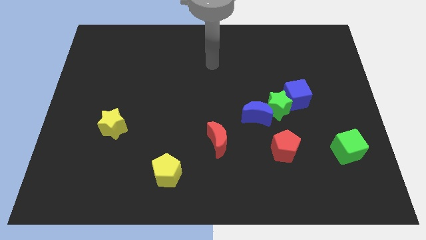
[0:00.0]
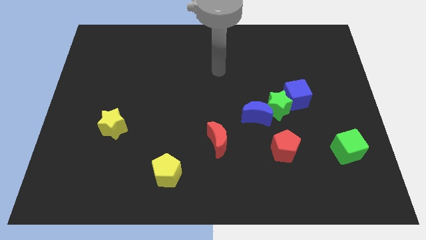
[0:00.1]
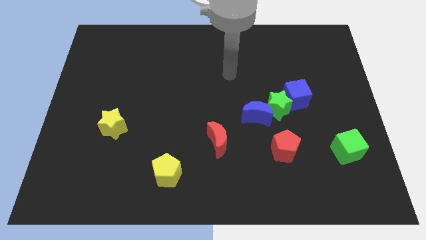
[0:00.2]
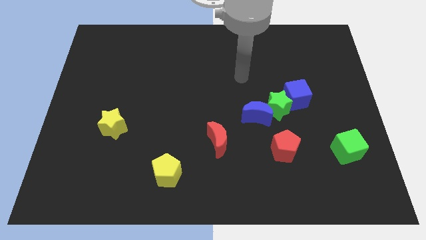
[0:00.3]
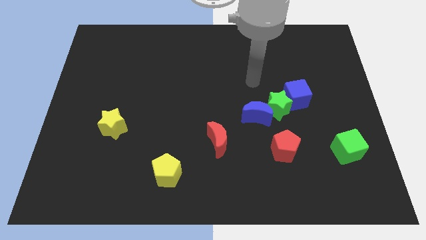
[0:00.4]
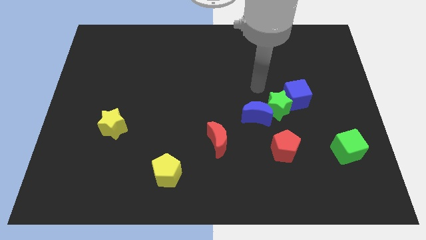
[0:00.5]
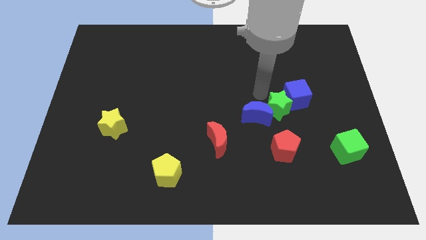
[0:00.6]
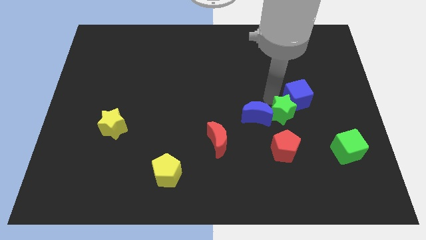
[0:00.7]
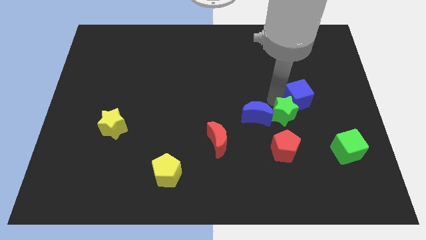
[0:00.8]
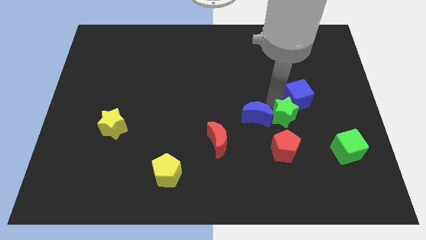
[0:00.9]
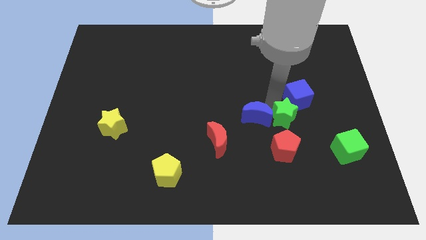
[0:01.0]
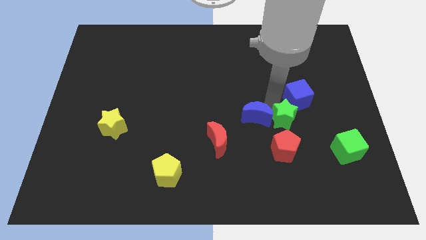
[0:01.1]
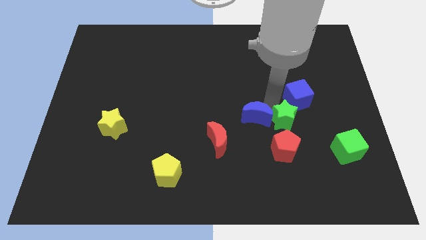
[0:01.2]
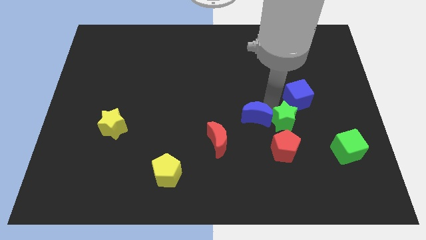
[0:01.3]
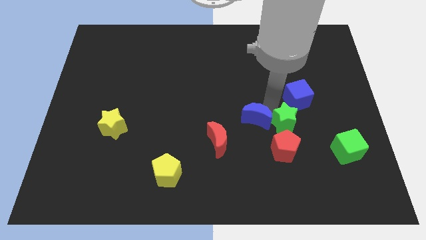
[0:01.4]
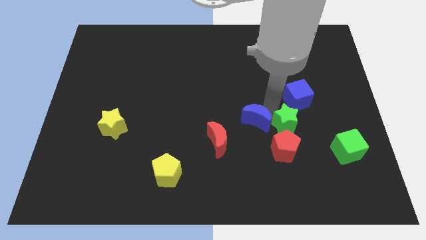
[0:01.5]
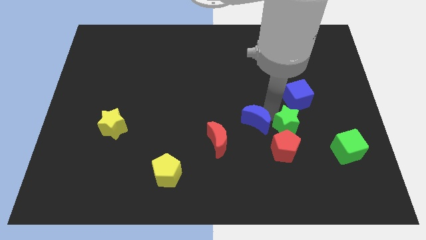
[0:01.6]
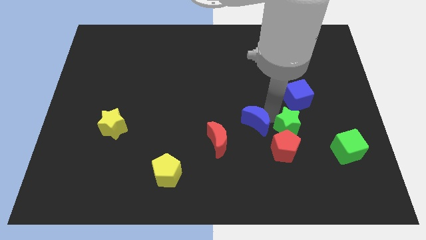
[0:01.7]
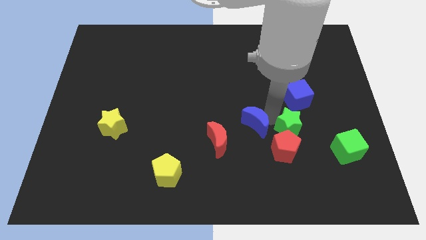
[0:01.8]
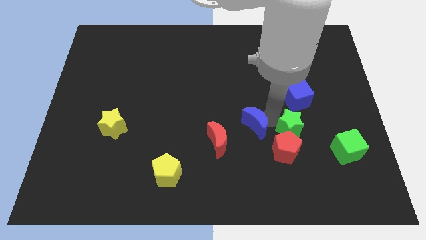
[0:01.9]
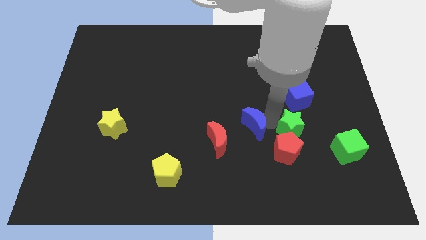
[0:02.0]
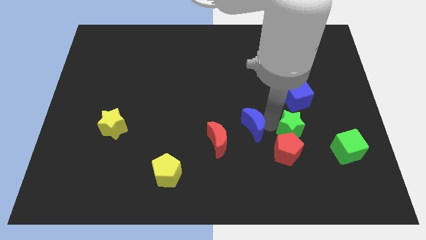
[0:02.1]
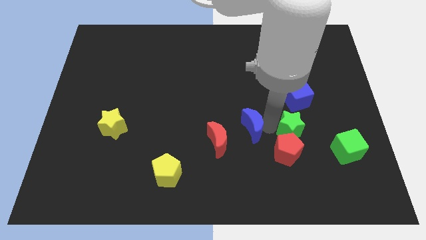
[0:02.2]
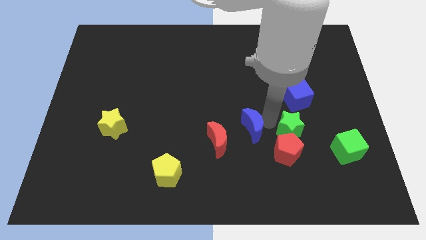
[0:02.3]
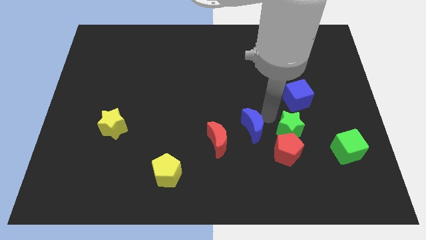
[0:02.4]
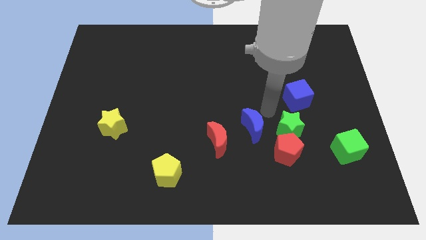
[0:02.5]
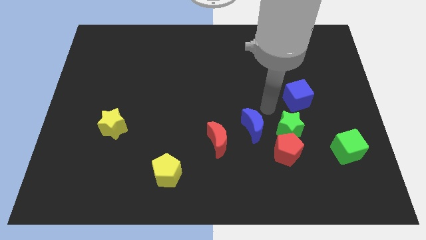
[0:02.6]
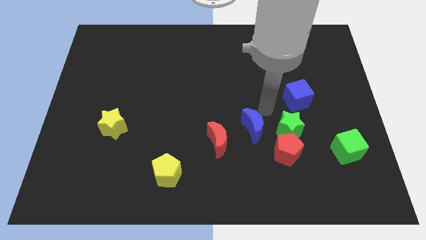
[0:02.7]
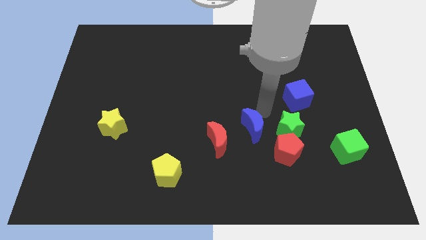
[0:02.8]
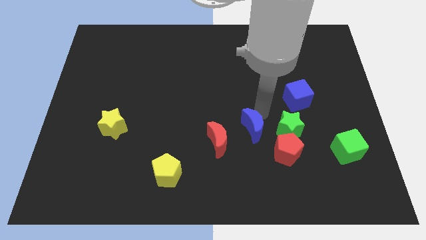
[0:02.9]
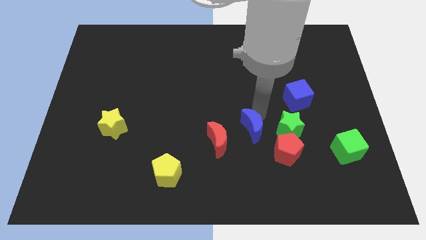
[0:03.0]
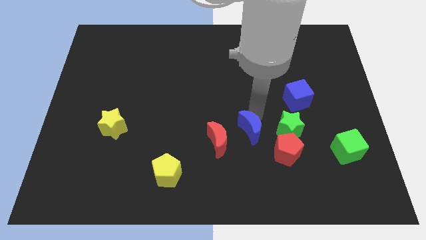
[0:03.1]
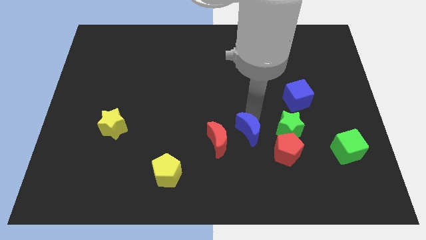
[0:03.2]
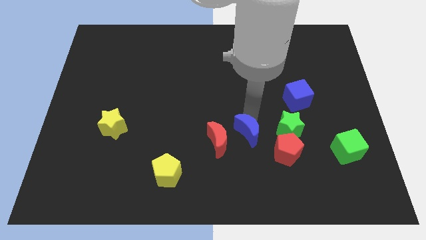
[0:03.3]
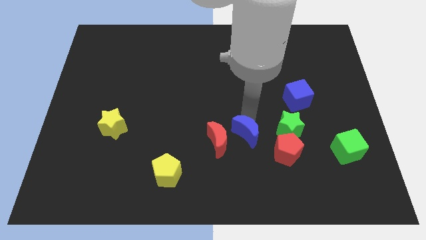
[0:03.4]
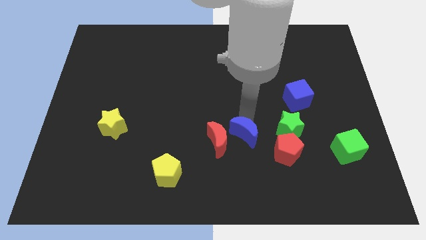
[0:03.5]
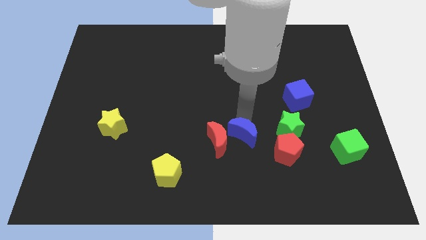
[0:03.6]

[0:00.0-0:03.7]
pull the blue moon apart from the green star

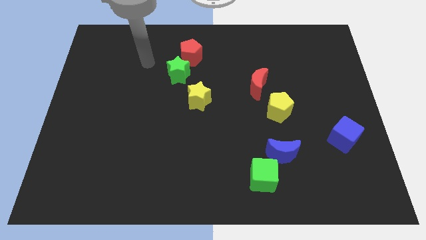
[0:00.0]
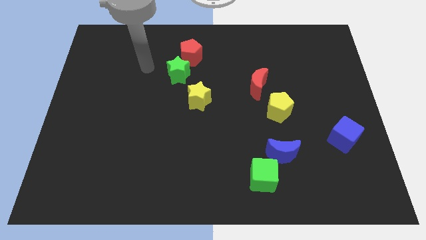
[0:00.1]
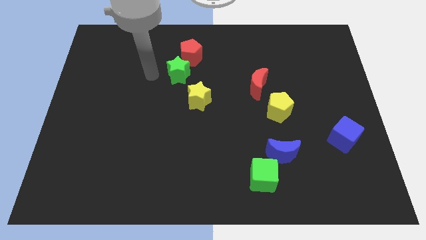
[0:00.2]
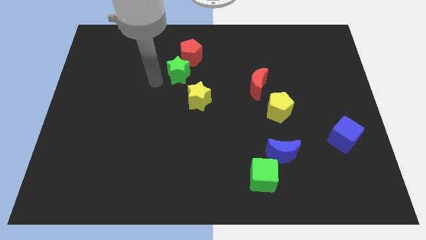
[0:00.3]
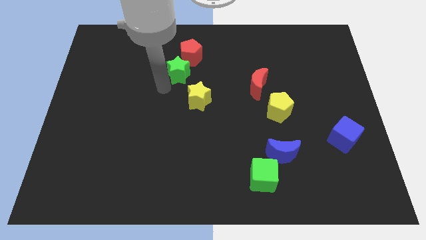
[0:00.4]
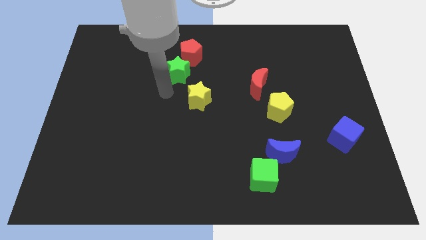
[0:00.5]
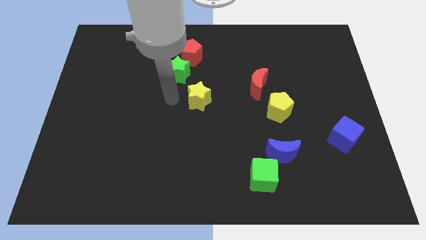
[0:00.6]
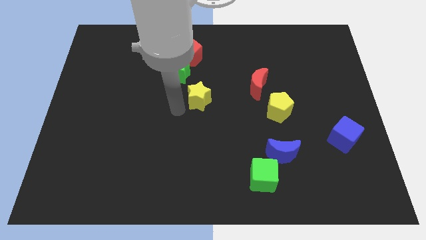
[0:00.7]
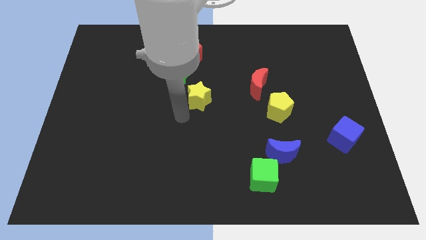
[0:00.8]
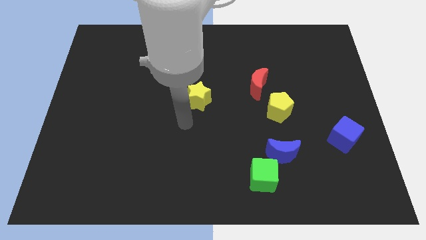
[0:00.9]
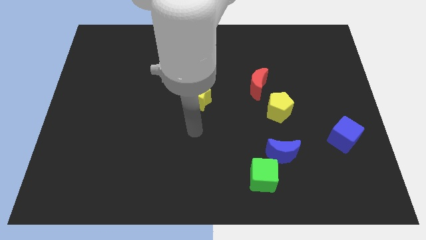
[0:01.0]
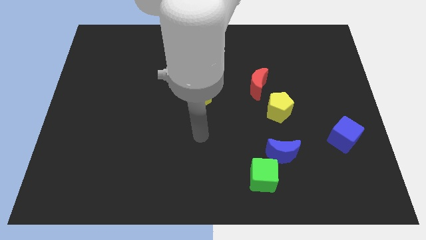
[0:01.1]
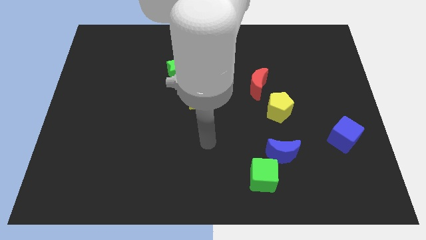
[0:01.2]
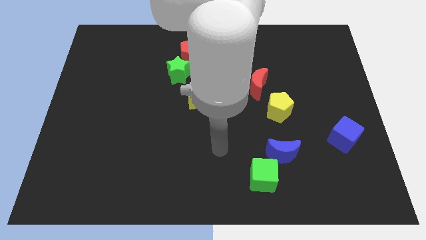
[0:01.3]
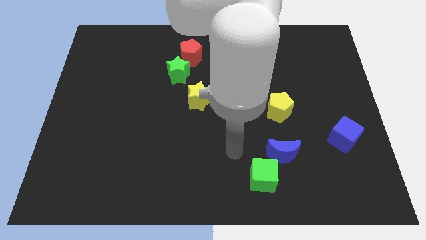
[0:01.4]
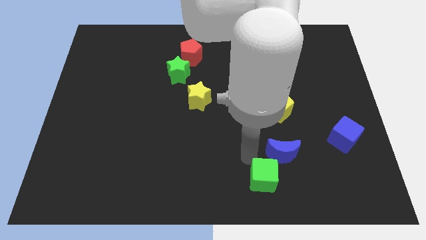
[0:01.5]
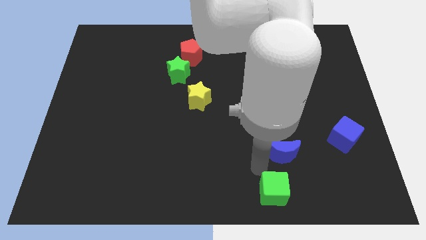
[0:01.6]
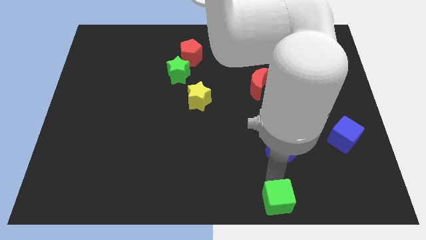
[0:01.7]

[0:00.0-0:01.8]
move the blue moon away from the green cube

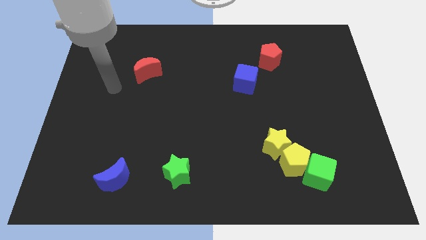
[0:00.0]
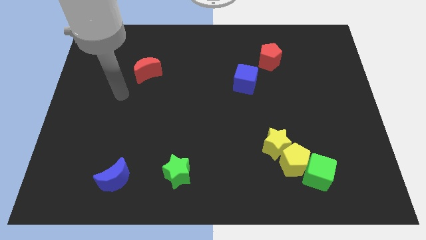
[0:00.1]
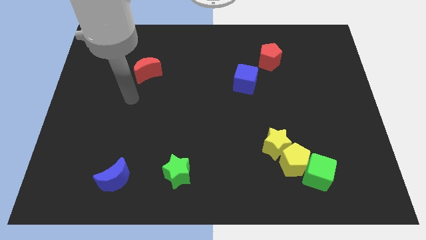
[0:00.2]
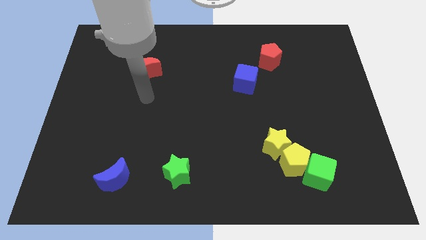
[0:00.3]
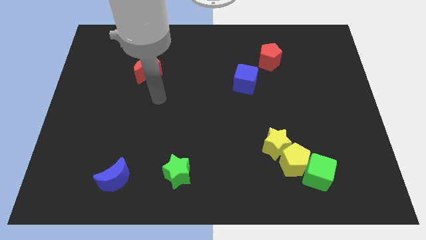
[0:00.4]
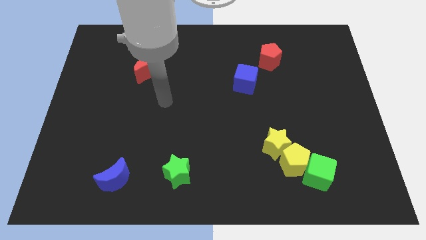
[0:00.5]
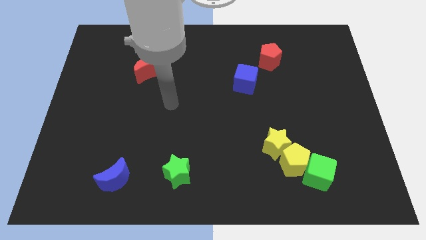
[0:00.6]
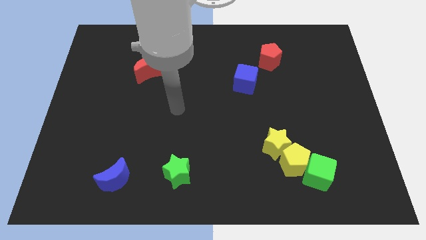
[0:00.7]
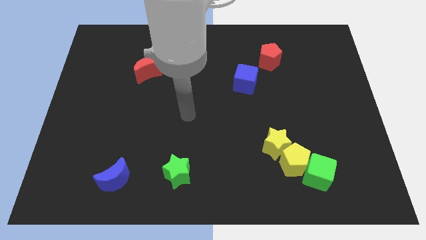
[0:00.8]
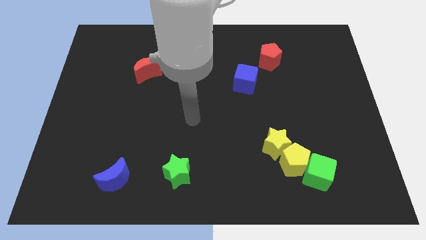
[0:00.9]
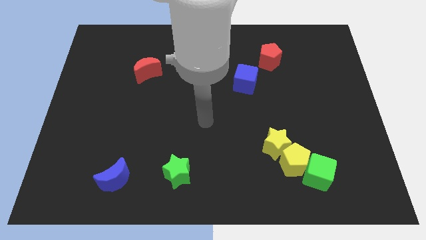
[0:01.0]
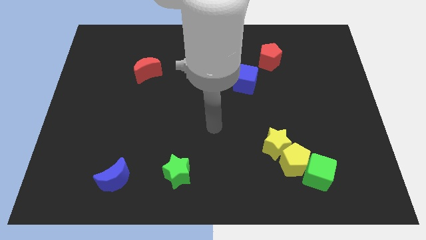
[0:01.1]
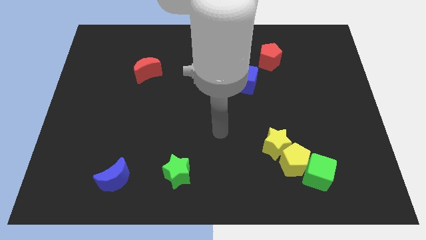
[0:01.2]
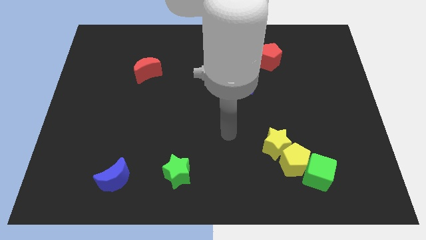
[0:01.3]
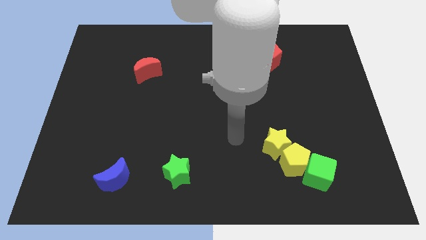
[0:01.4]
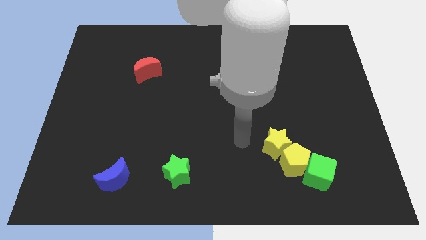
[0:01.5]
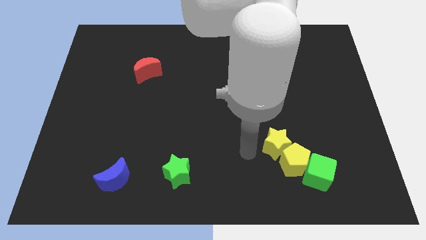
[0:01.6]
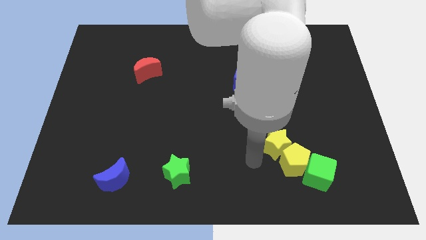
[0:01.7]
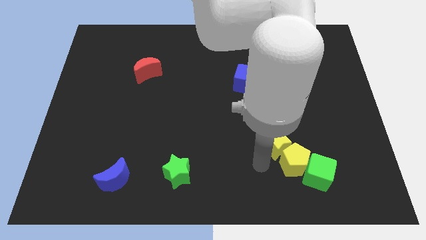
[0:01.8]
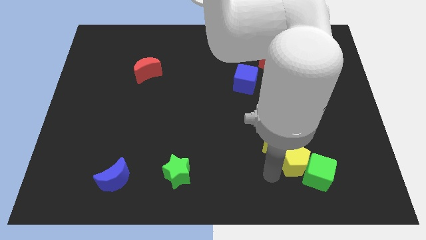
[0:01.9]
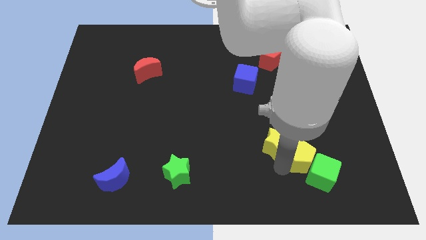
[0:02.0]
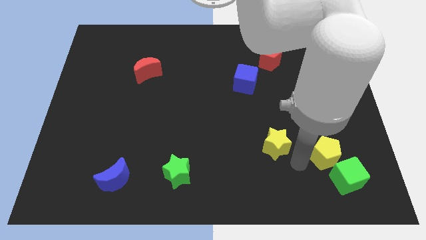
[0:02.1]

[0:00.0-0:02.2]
separate the yellow star from the yellow pentagon

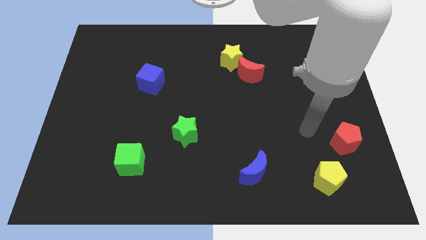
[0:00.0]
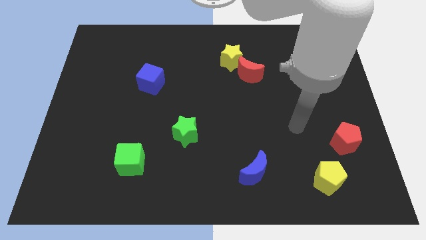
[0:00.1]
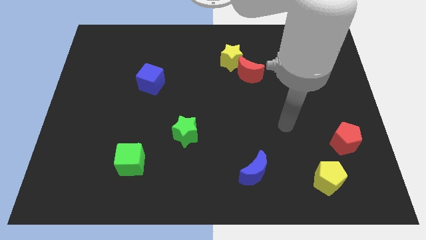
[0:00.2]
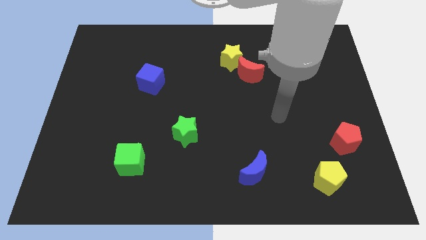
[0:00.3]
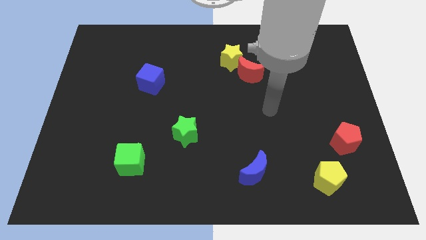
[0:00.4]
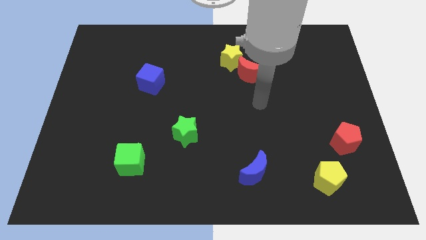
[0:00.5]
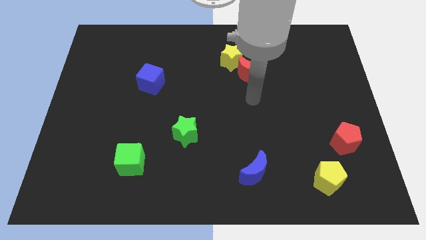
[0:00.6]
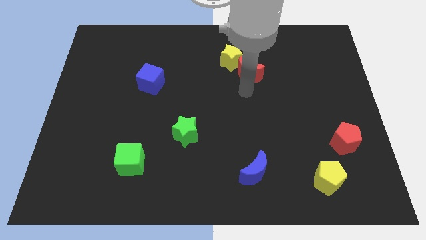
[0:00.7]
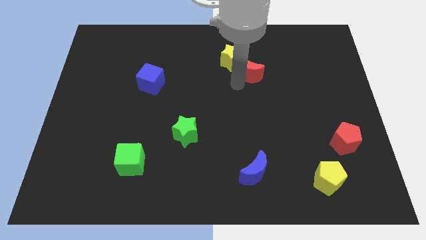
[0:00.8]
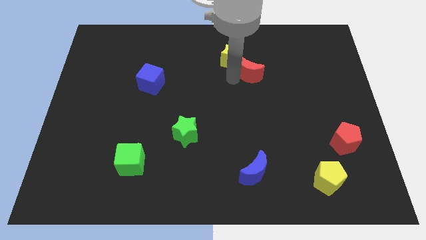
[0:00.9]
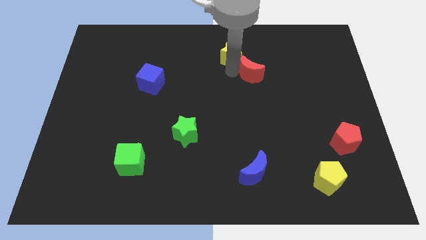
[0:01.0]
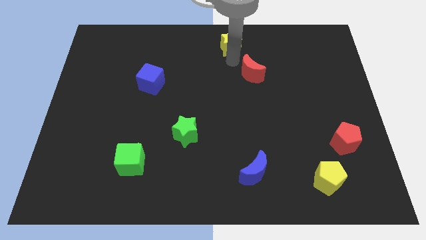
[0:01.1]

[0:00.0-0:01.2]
move the red moon away from the yellow star

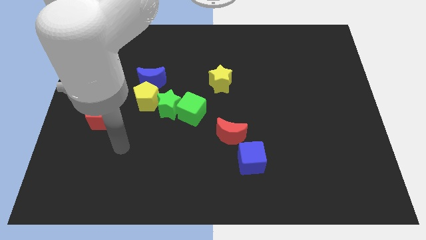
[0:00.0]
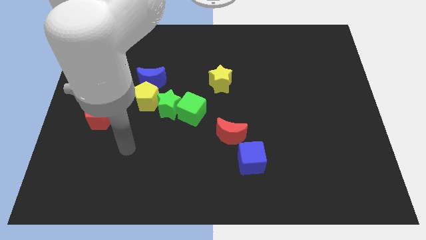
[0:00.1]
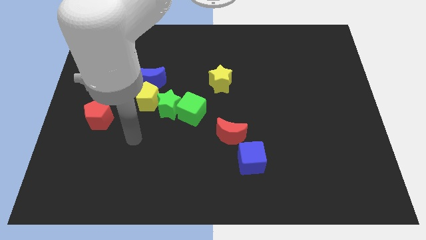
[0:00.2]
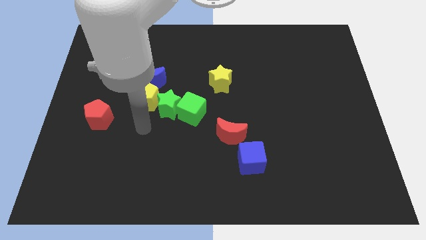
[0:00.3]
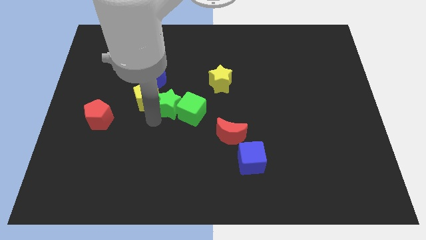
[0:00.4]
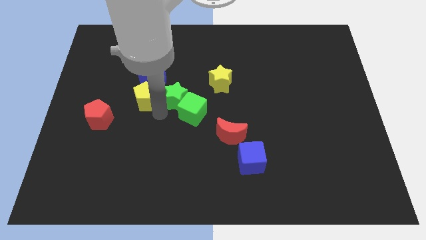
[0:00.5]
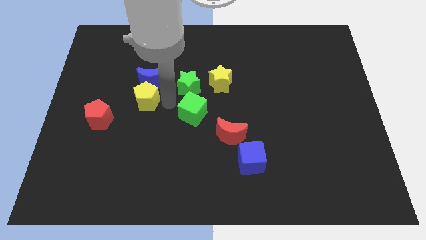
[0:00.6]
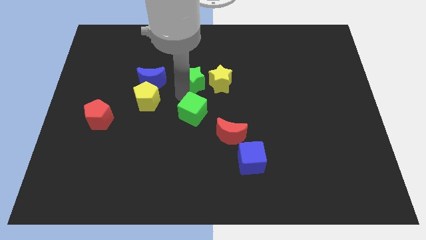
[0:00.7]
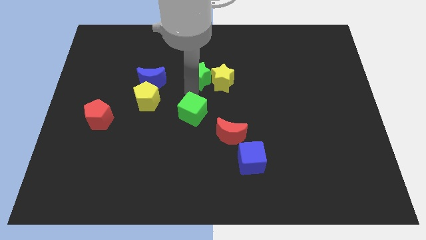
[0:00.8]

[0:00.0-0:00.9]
pull the green cube apart from the green star
